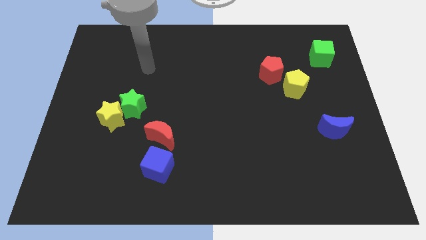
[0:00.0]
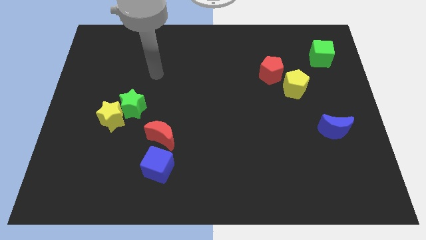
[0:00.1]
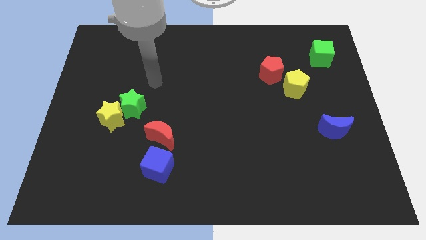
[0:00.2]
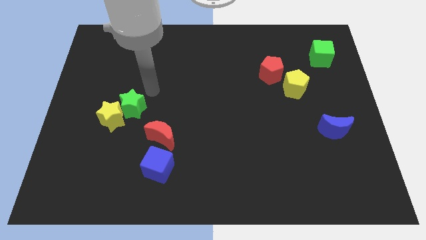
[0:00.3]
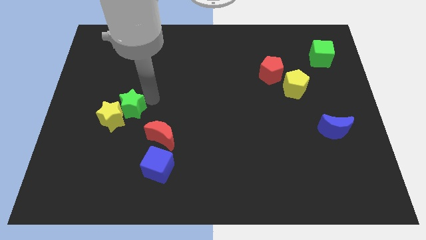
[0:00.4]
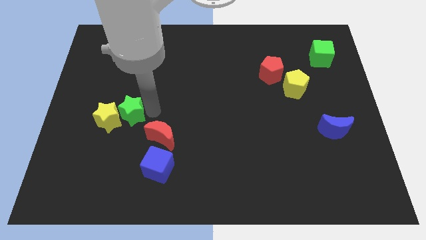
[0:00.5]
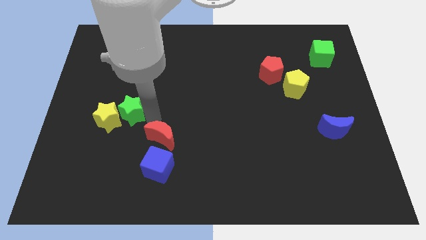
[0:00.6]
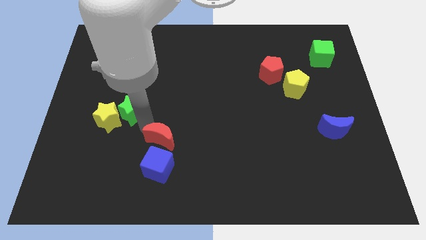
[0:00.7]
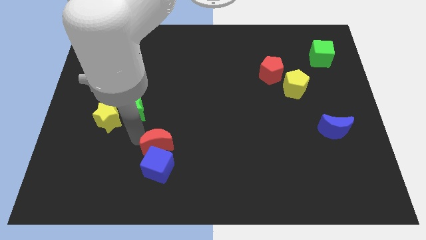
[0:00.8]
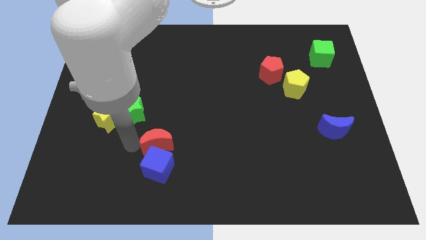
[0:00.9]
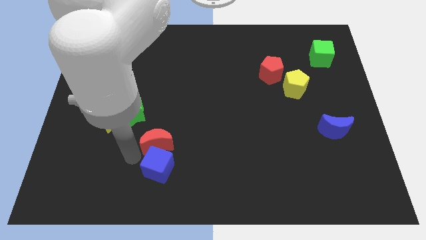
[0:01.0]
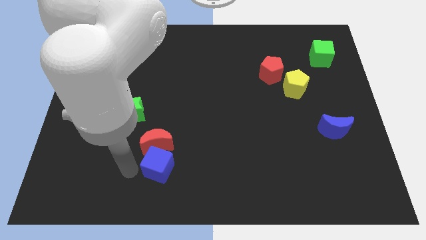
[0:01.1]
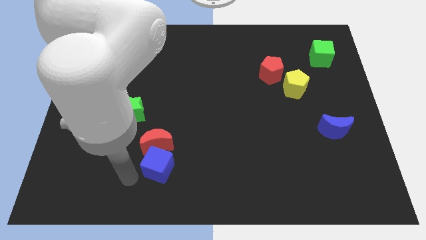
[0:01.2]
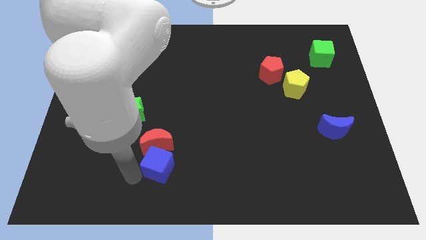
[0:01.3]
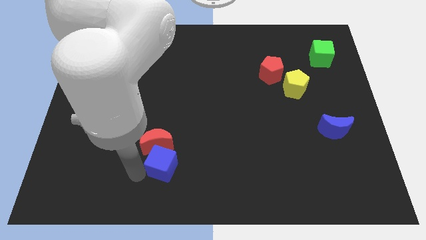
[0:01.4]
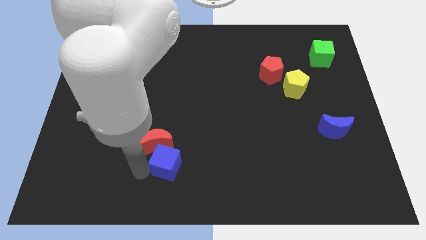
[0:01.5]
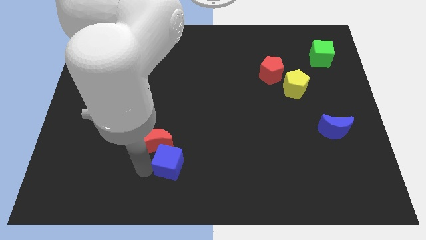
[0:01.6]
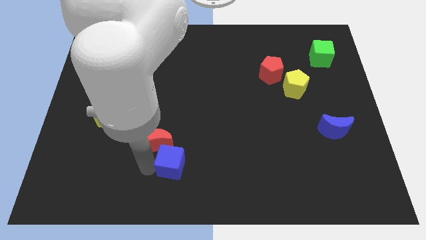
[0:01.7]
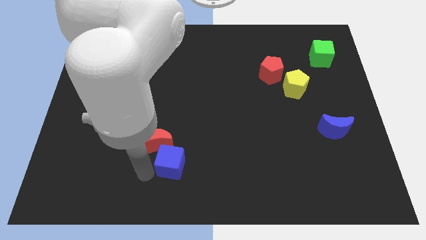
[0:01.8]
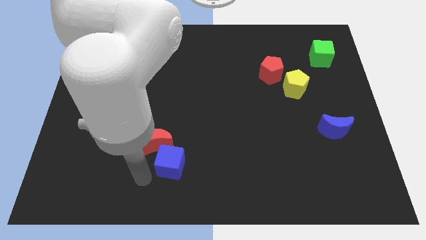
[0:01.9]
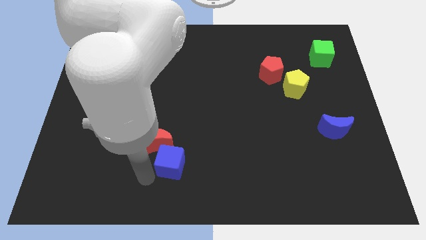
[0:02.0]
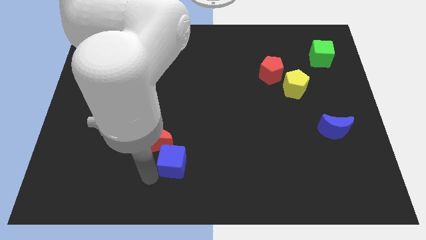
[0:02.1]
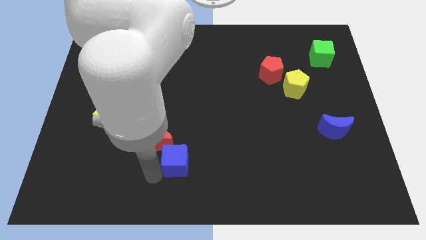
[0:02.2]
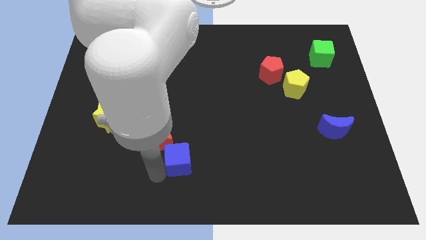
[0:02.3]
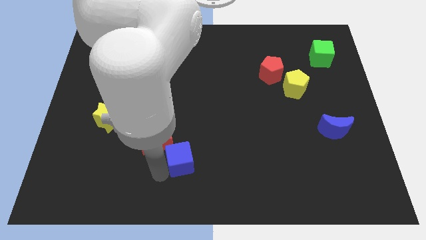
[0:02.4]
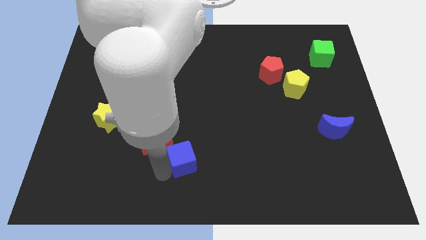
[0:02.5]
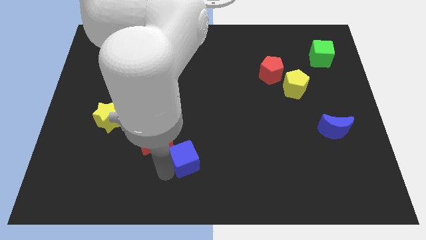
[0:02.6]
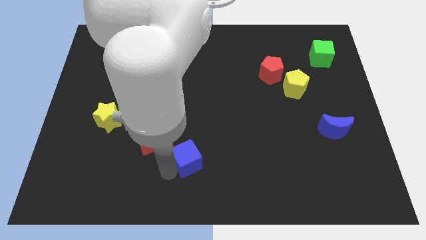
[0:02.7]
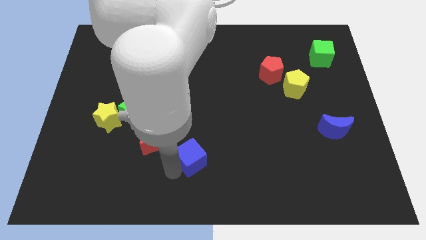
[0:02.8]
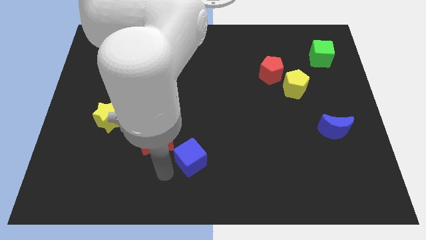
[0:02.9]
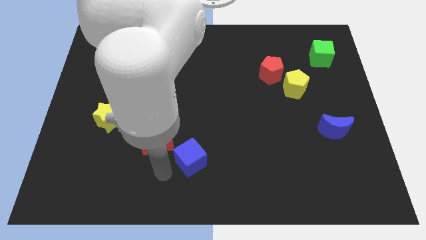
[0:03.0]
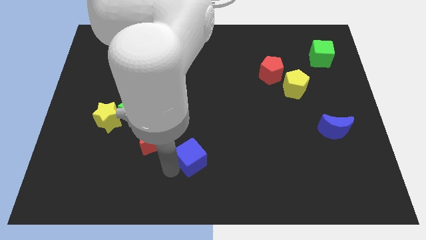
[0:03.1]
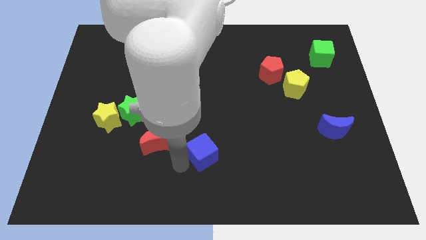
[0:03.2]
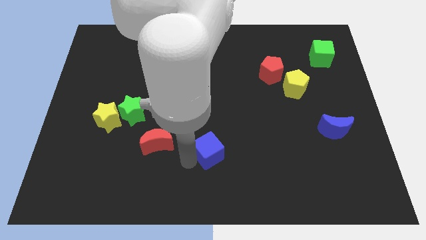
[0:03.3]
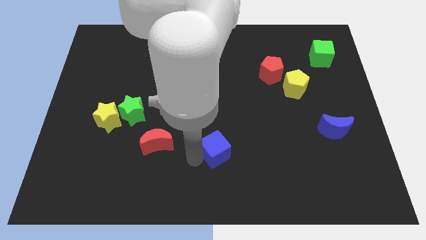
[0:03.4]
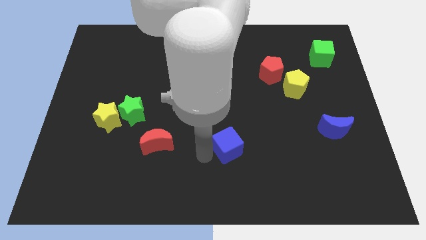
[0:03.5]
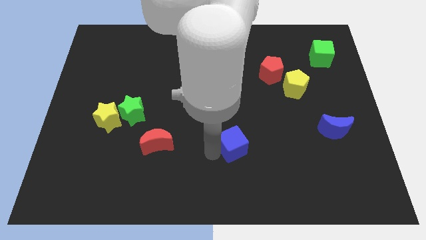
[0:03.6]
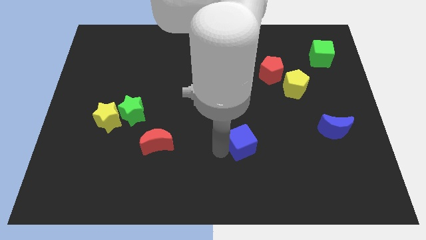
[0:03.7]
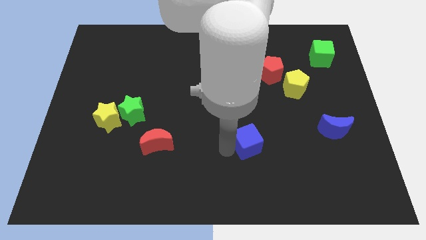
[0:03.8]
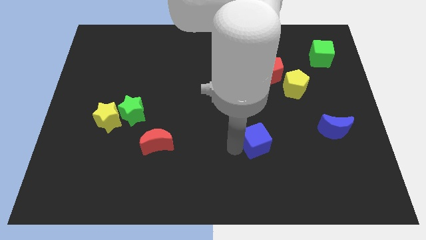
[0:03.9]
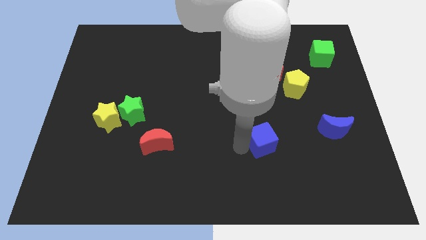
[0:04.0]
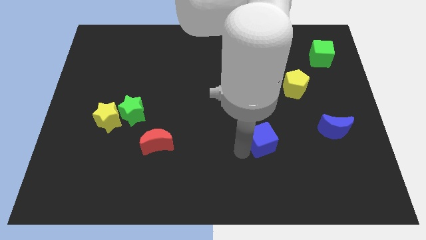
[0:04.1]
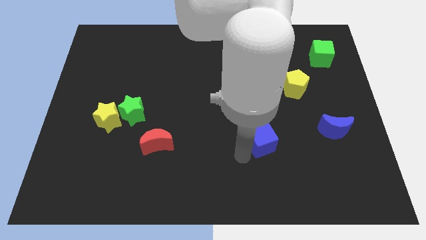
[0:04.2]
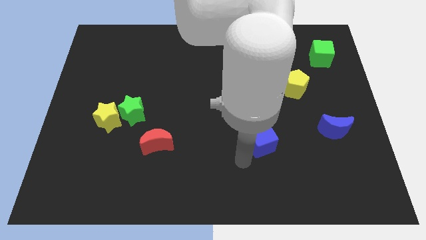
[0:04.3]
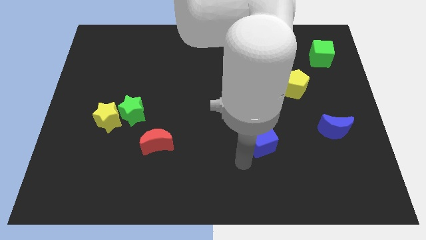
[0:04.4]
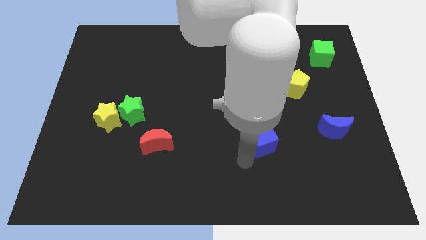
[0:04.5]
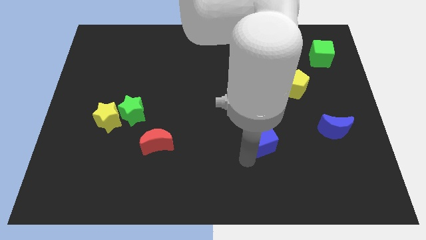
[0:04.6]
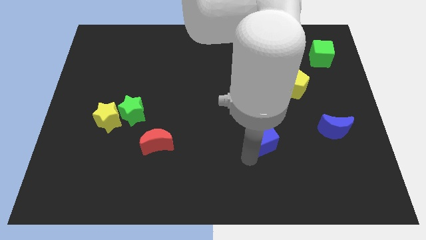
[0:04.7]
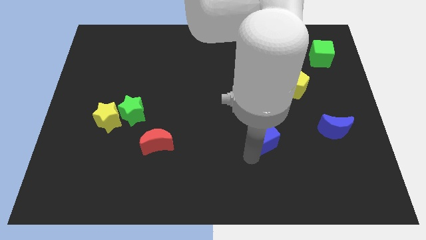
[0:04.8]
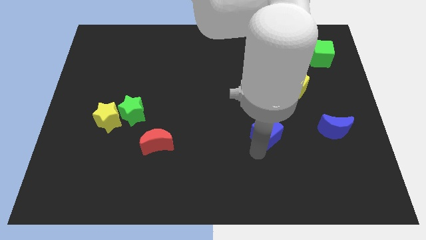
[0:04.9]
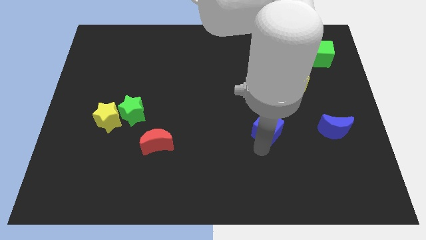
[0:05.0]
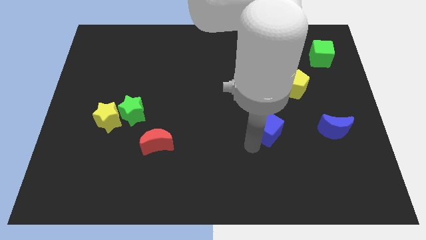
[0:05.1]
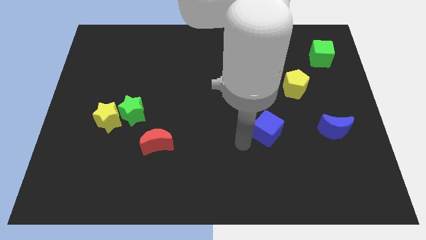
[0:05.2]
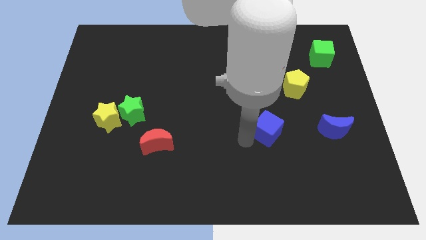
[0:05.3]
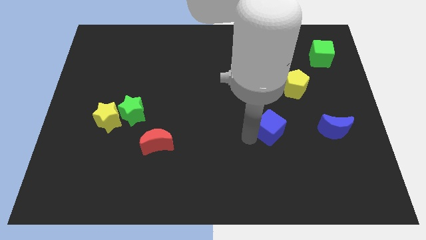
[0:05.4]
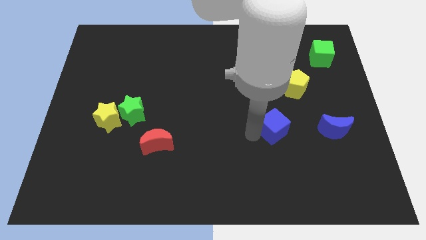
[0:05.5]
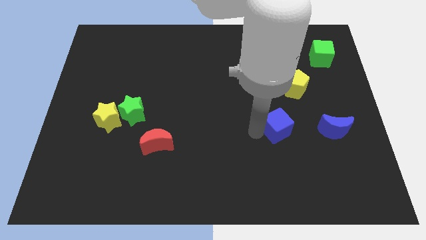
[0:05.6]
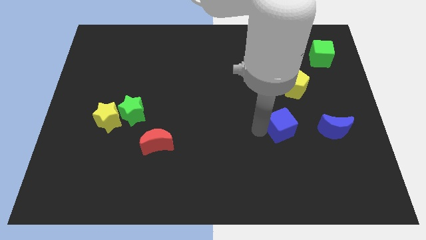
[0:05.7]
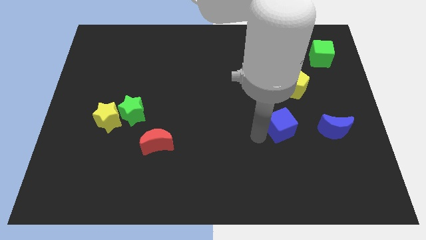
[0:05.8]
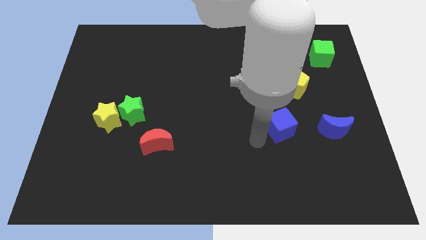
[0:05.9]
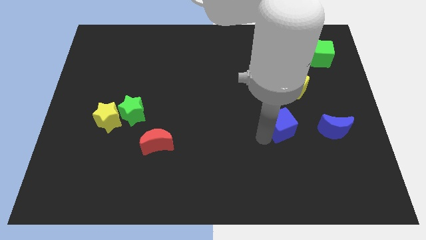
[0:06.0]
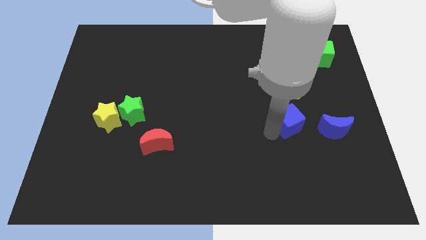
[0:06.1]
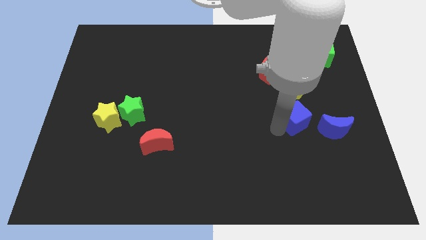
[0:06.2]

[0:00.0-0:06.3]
move the blue cube diagonally up and to the left of the blue moon
